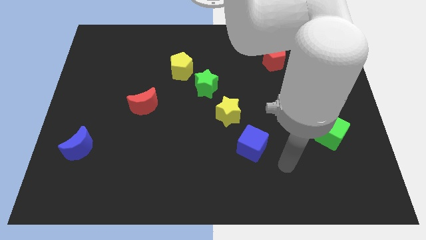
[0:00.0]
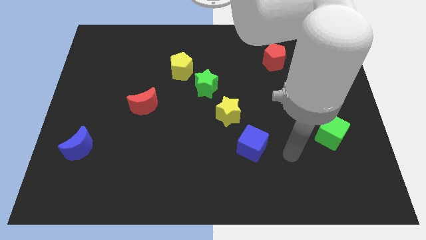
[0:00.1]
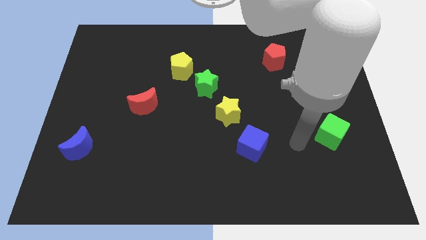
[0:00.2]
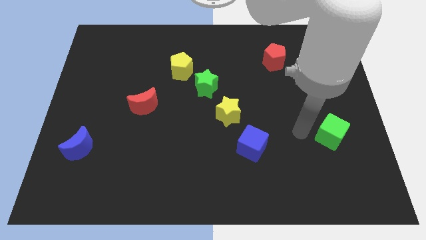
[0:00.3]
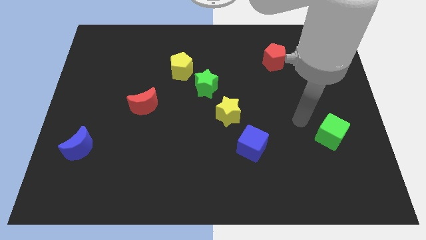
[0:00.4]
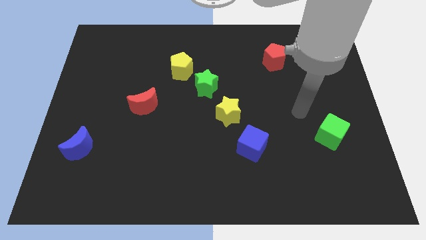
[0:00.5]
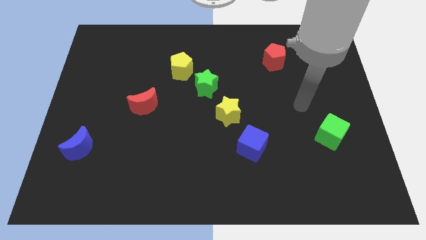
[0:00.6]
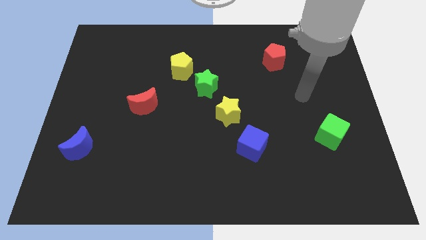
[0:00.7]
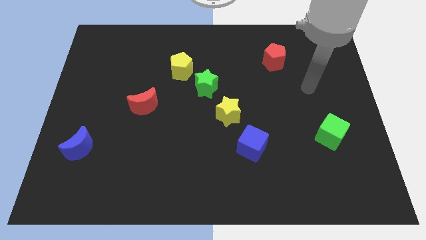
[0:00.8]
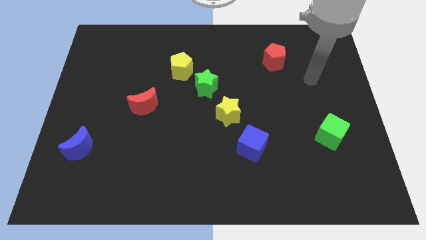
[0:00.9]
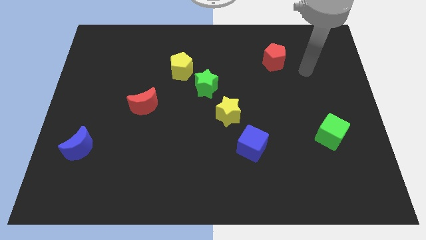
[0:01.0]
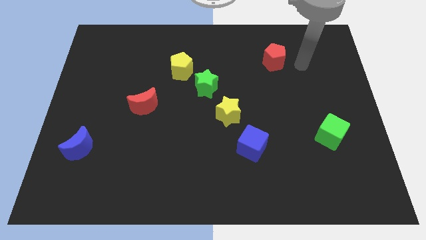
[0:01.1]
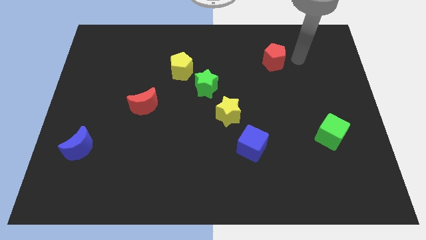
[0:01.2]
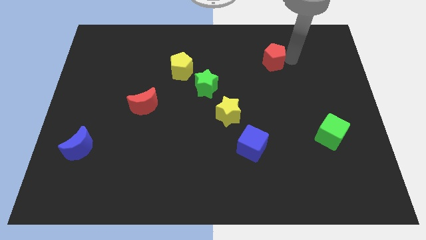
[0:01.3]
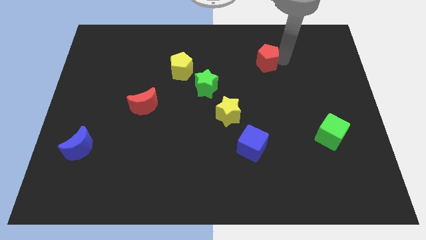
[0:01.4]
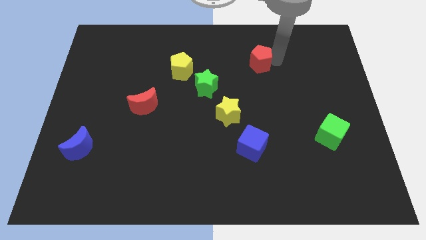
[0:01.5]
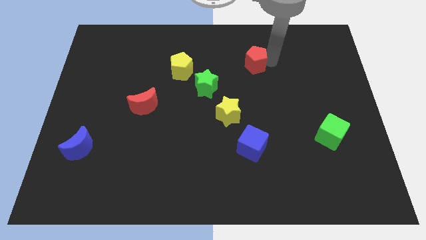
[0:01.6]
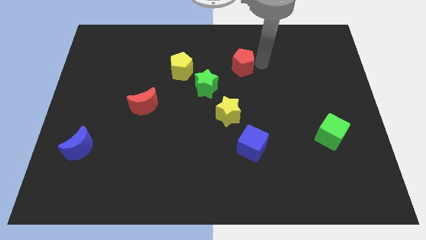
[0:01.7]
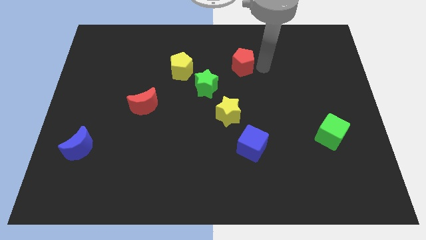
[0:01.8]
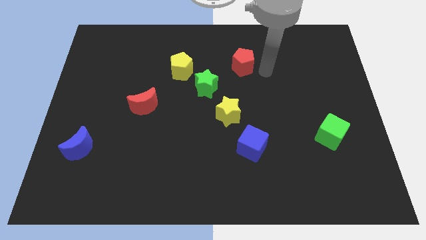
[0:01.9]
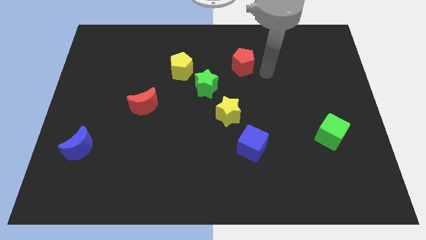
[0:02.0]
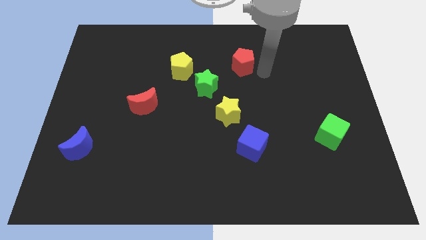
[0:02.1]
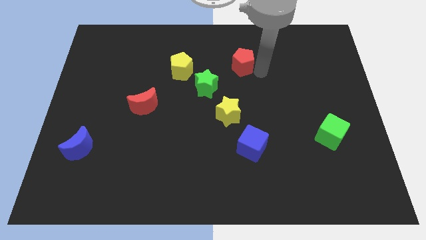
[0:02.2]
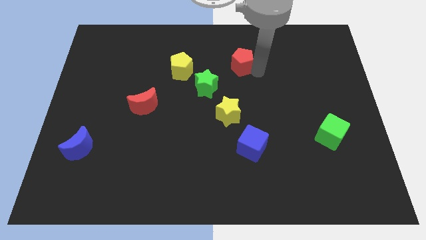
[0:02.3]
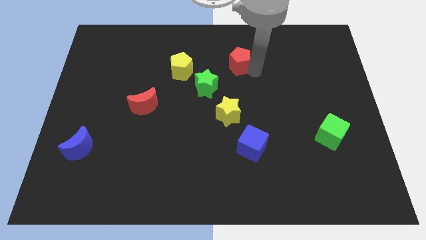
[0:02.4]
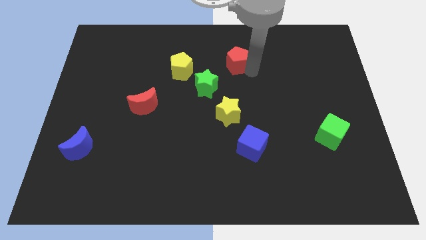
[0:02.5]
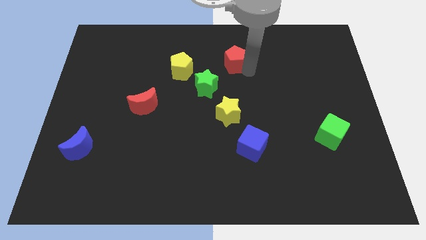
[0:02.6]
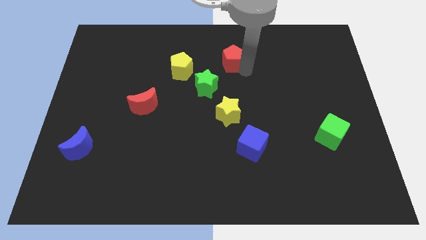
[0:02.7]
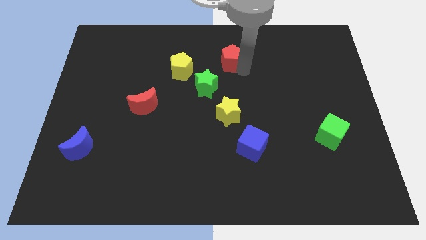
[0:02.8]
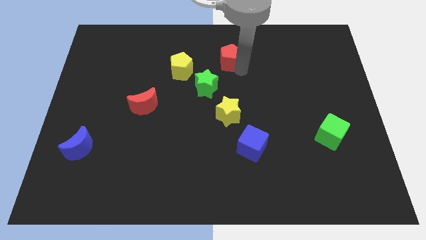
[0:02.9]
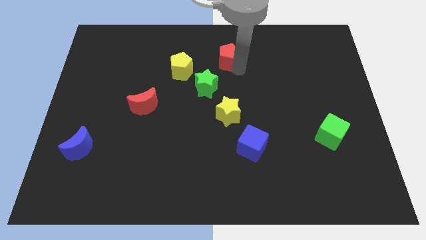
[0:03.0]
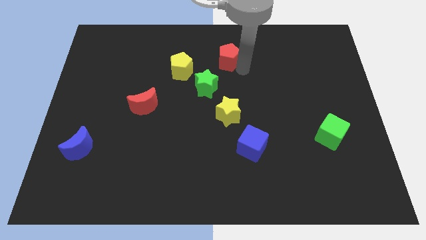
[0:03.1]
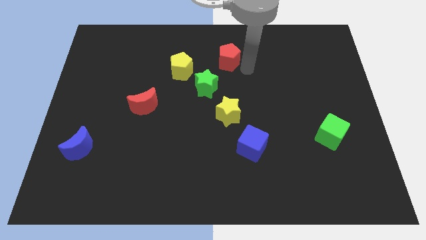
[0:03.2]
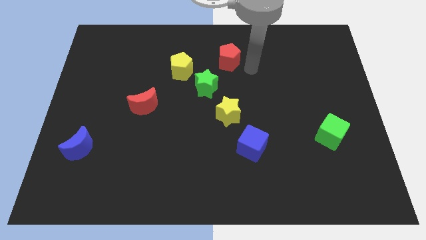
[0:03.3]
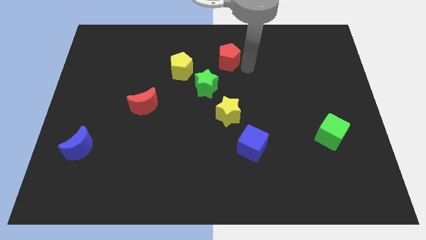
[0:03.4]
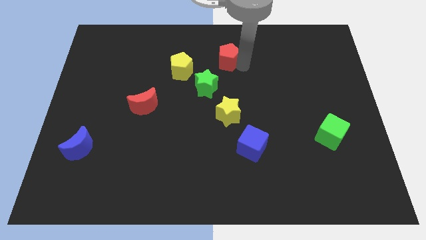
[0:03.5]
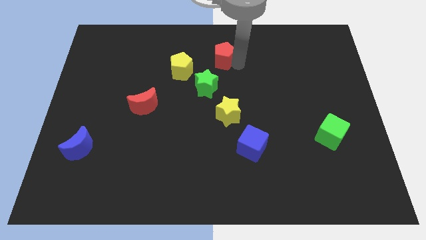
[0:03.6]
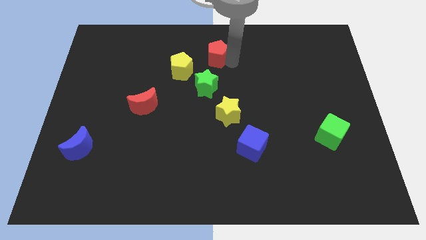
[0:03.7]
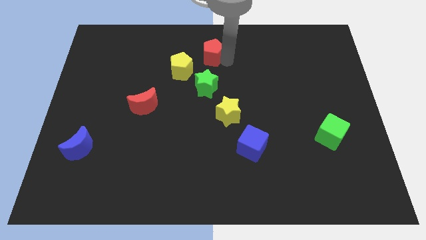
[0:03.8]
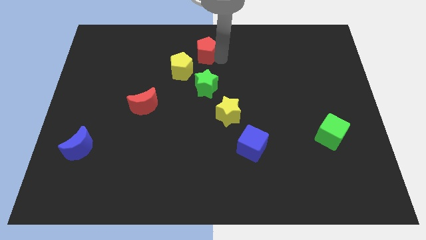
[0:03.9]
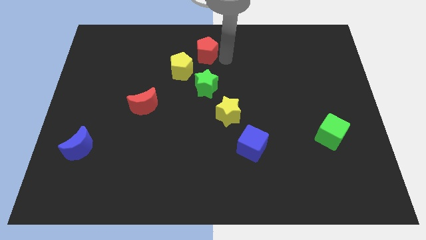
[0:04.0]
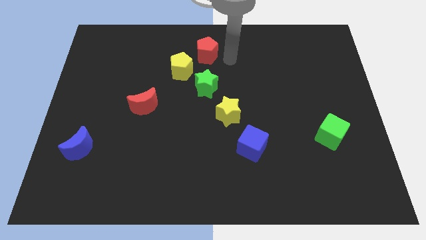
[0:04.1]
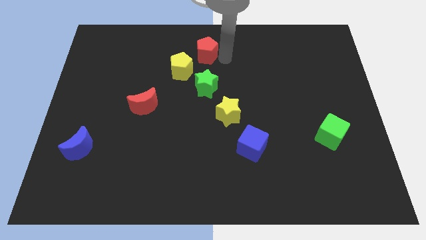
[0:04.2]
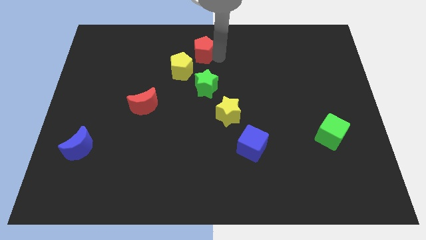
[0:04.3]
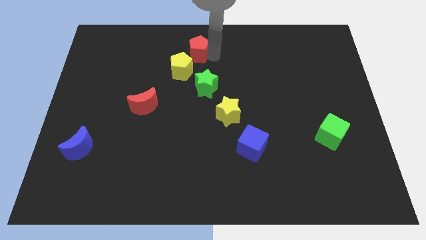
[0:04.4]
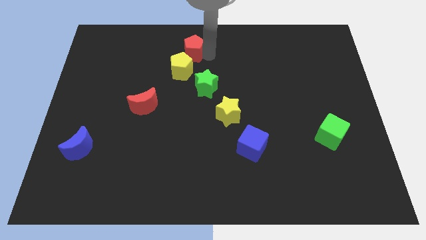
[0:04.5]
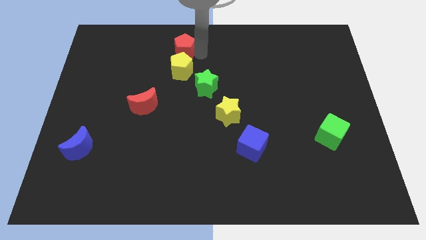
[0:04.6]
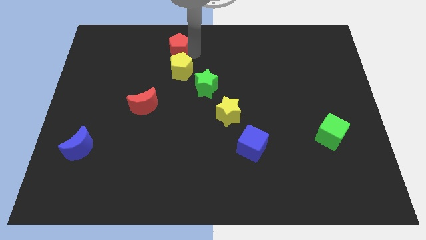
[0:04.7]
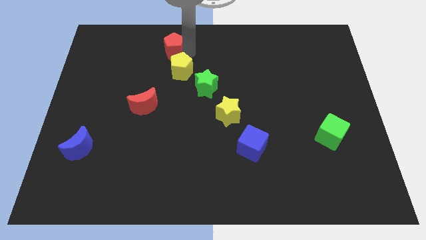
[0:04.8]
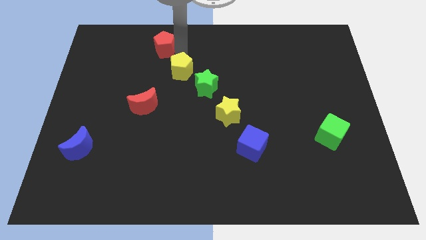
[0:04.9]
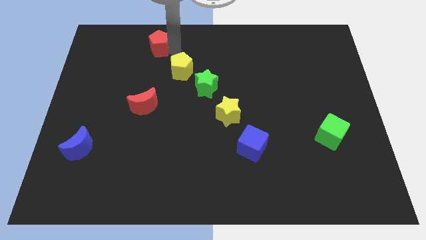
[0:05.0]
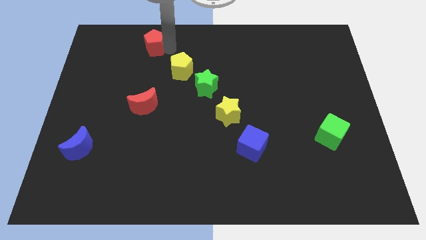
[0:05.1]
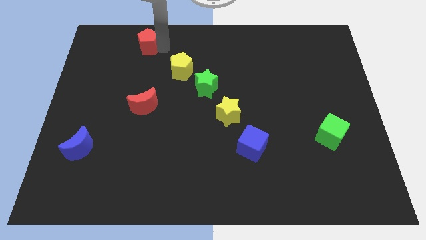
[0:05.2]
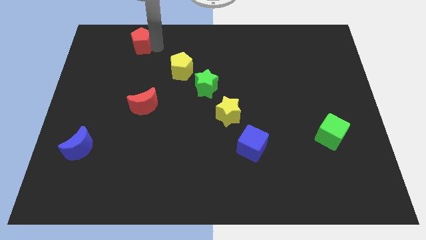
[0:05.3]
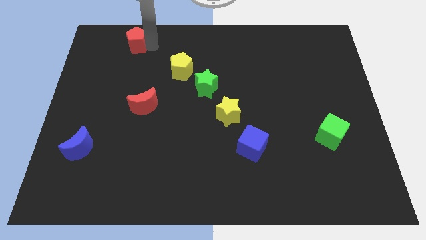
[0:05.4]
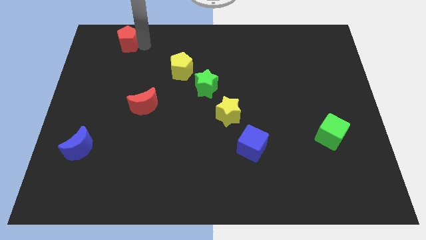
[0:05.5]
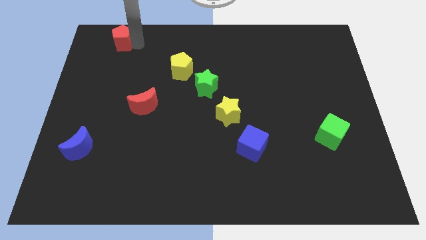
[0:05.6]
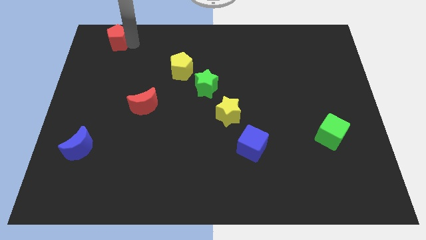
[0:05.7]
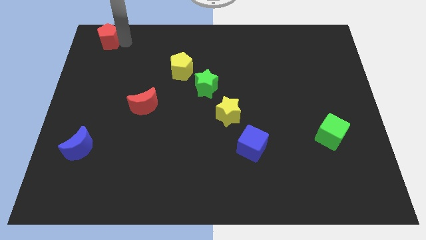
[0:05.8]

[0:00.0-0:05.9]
slide the red pentagon to the top left of the board
